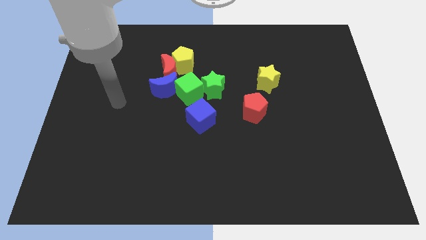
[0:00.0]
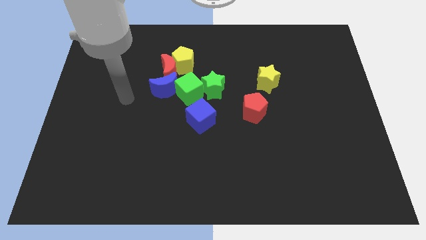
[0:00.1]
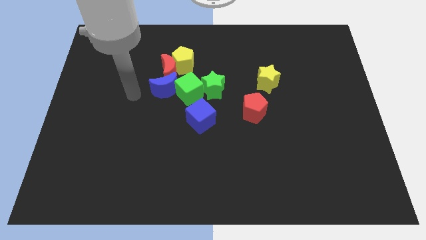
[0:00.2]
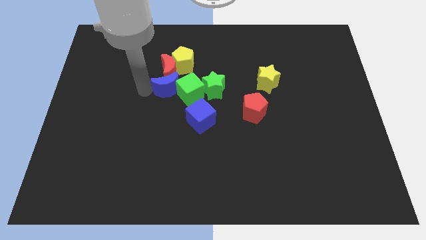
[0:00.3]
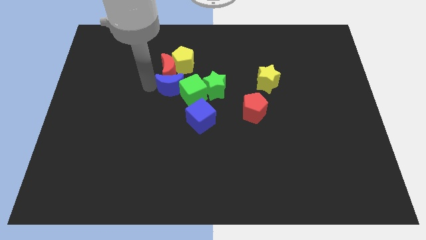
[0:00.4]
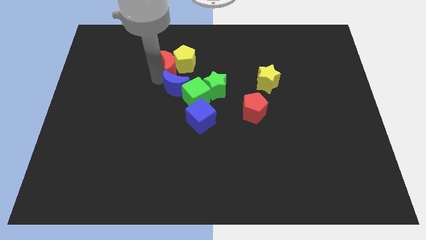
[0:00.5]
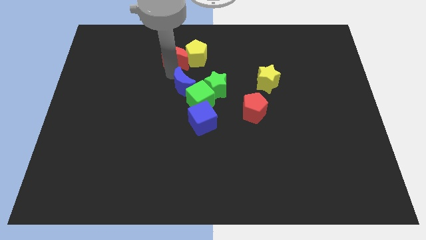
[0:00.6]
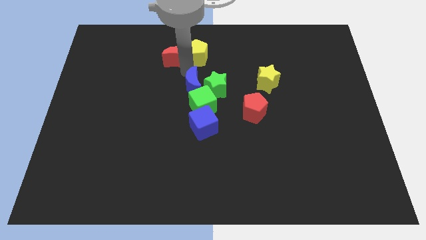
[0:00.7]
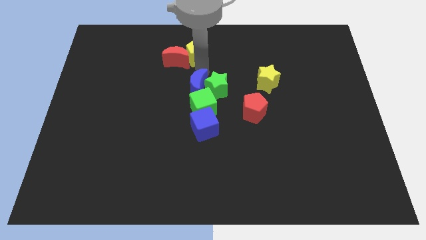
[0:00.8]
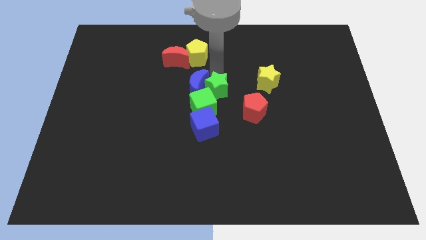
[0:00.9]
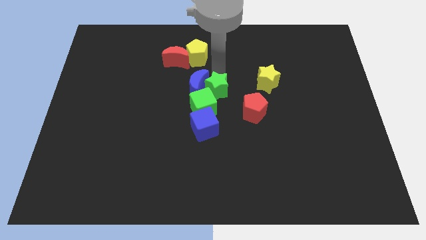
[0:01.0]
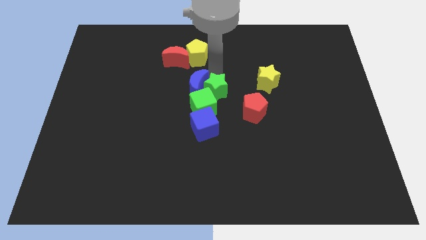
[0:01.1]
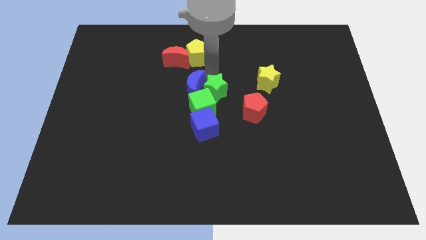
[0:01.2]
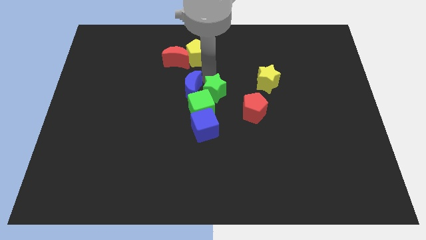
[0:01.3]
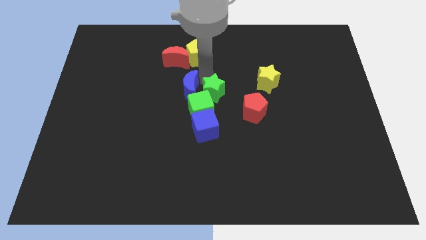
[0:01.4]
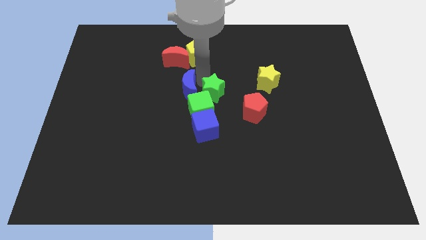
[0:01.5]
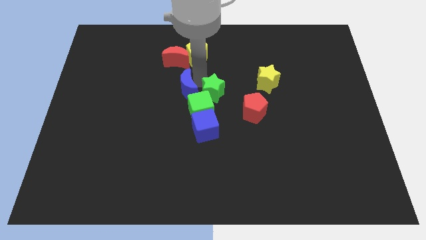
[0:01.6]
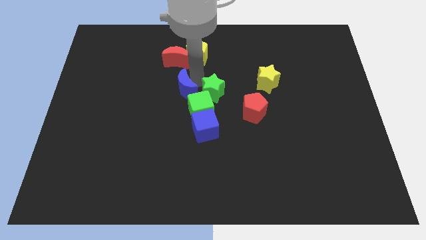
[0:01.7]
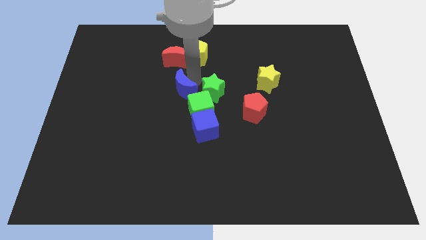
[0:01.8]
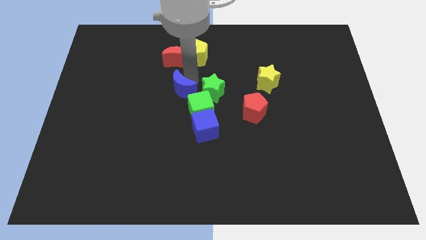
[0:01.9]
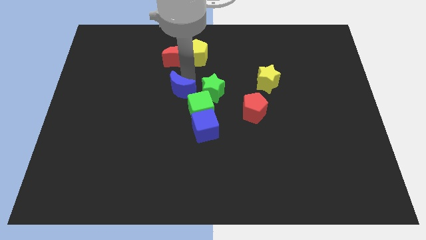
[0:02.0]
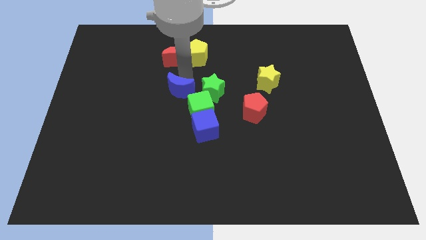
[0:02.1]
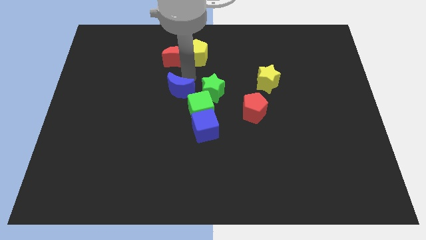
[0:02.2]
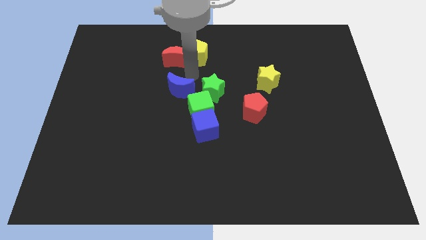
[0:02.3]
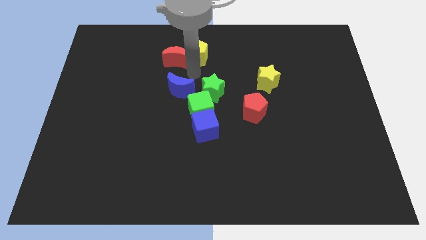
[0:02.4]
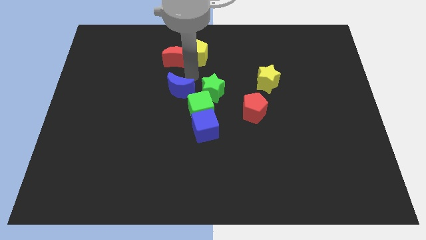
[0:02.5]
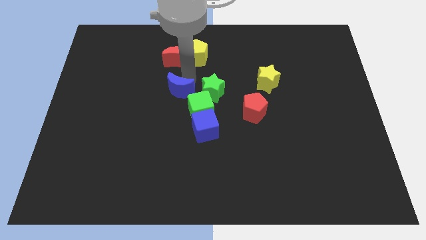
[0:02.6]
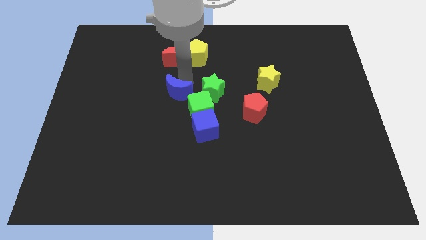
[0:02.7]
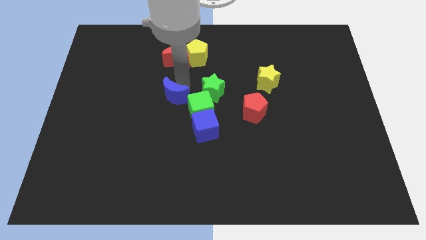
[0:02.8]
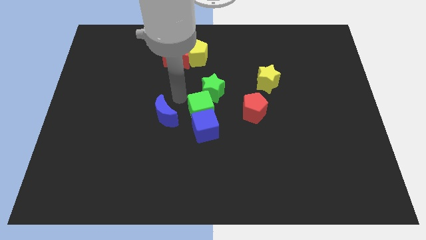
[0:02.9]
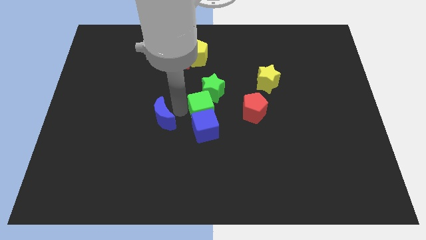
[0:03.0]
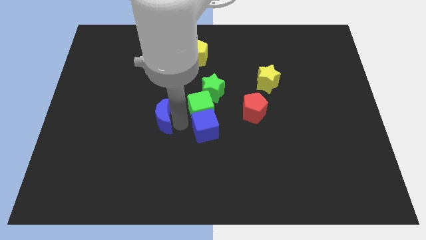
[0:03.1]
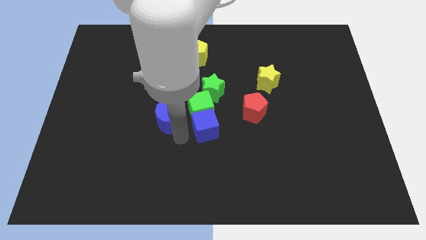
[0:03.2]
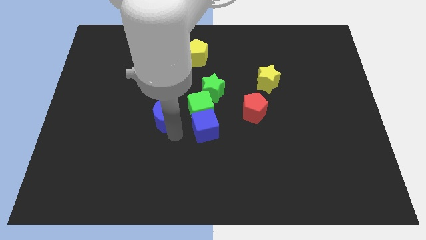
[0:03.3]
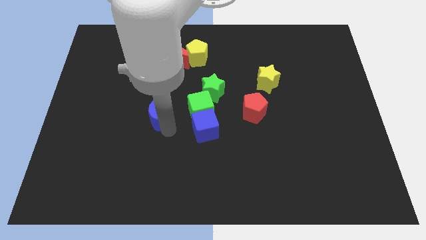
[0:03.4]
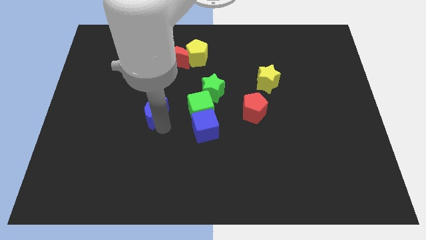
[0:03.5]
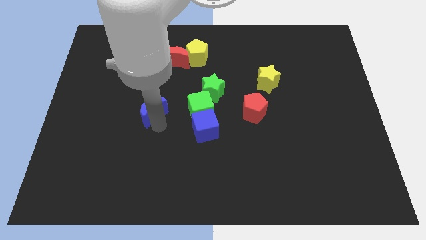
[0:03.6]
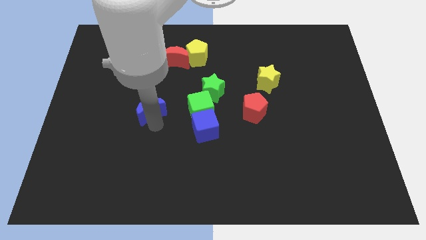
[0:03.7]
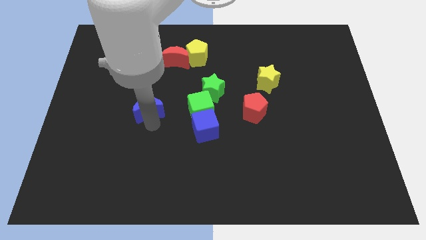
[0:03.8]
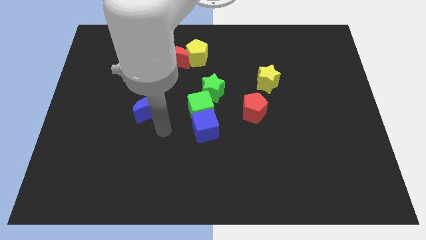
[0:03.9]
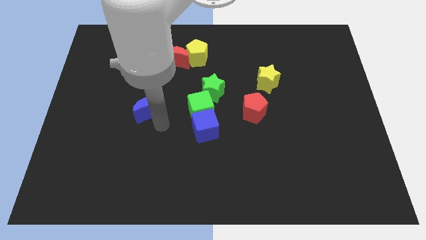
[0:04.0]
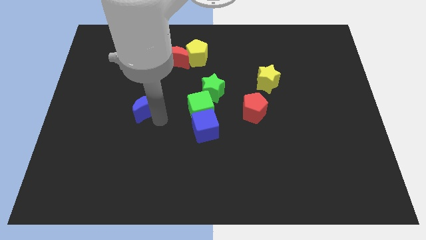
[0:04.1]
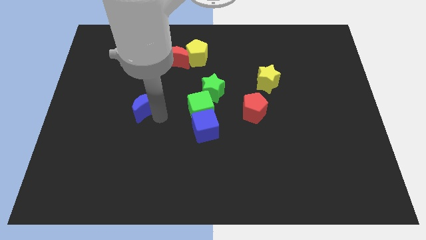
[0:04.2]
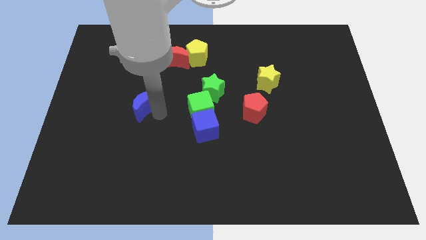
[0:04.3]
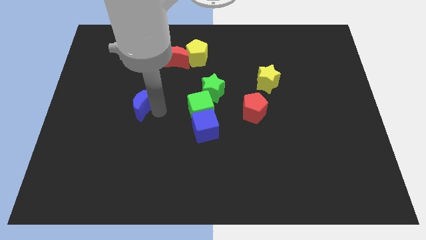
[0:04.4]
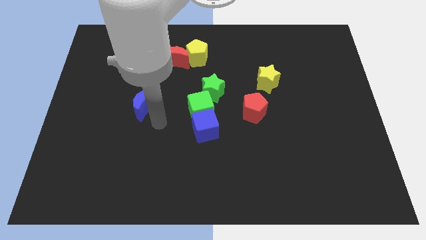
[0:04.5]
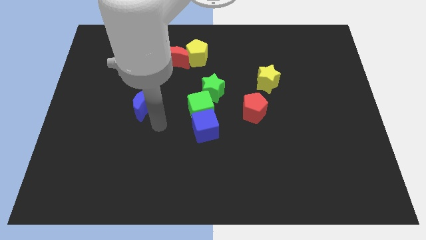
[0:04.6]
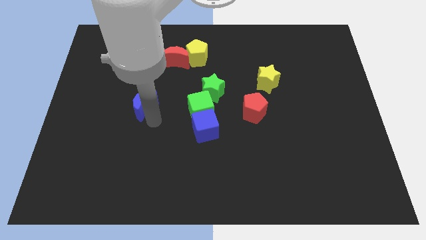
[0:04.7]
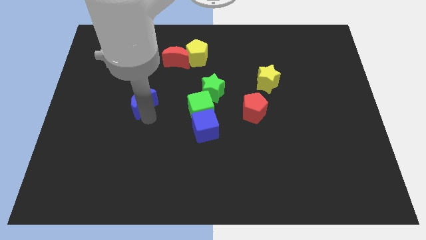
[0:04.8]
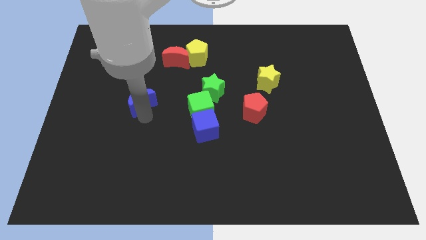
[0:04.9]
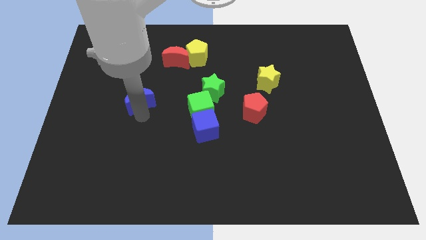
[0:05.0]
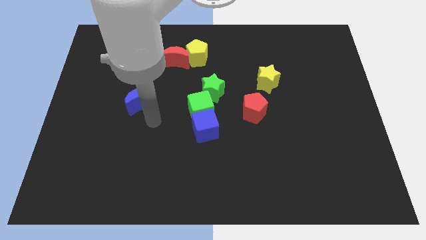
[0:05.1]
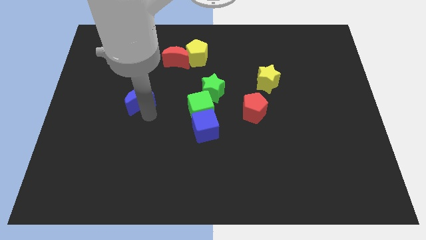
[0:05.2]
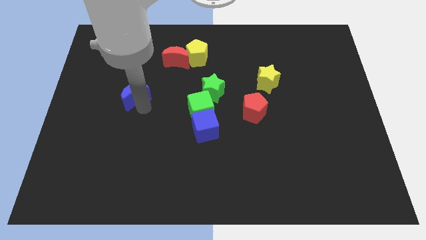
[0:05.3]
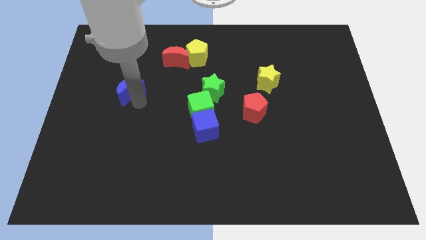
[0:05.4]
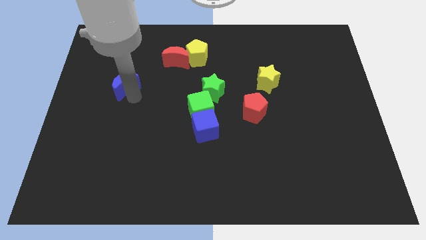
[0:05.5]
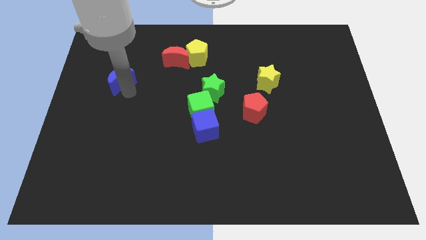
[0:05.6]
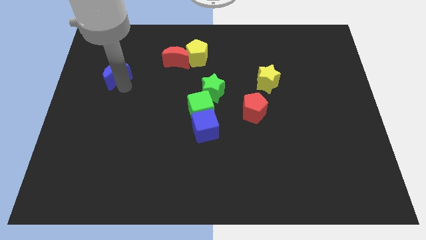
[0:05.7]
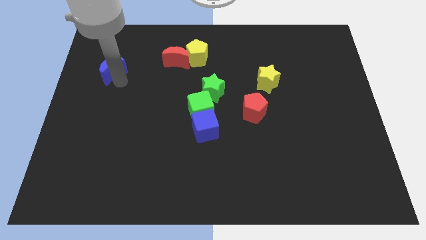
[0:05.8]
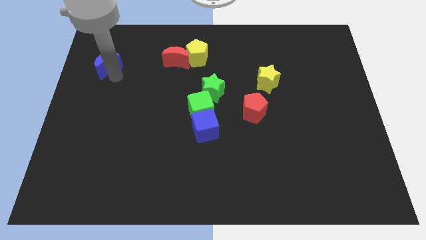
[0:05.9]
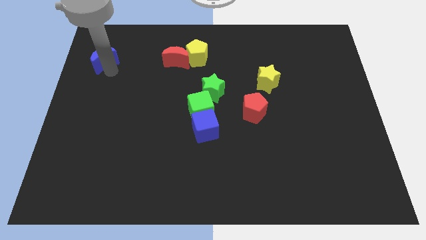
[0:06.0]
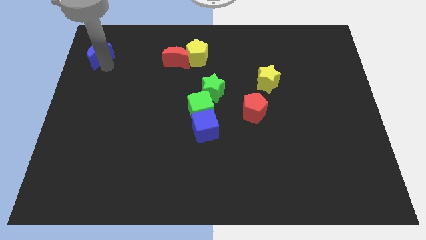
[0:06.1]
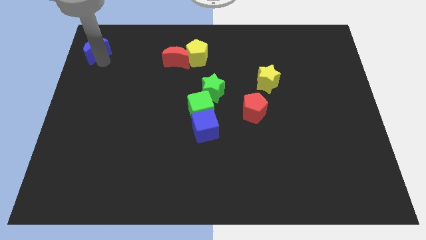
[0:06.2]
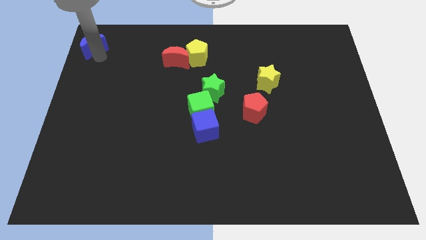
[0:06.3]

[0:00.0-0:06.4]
put the blue moon to the top left of the board

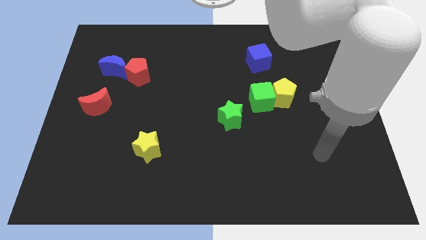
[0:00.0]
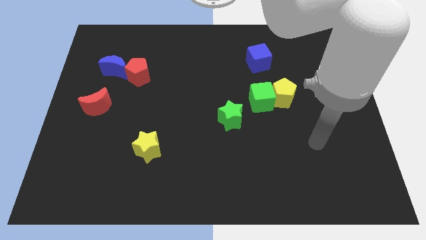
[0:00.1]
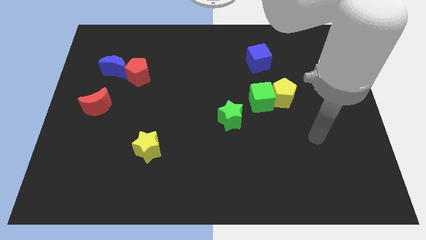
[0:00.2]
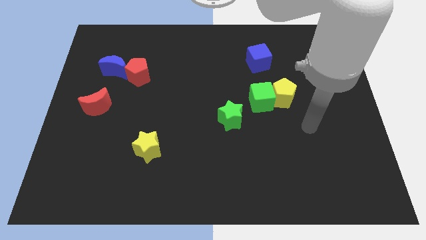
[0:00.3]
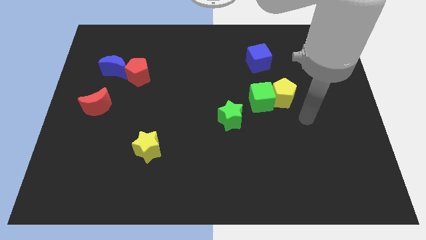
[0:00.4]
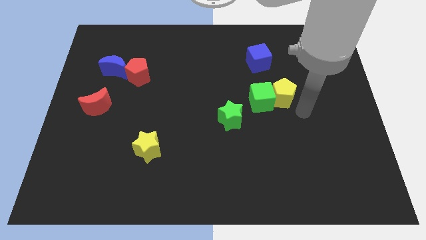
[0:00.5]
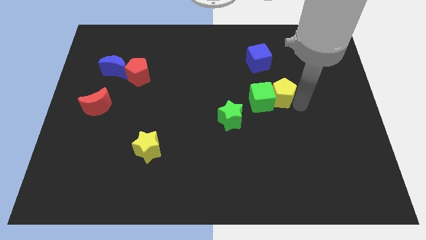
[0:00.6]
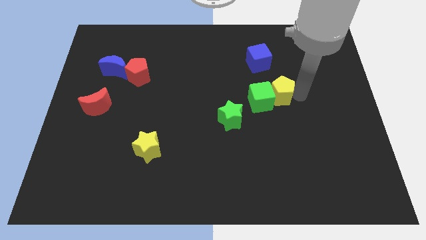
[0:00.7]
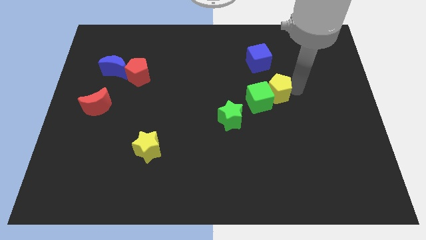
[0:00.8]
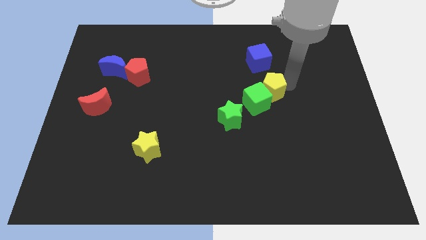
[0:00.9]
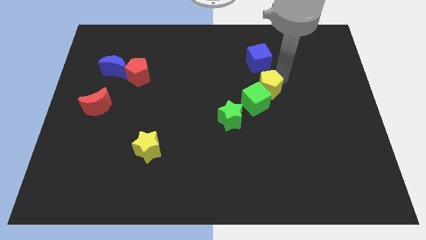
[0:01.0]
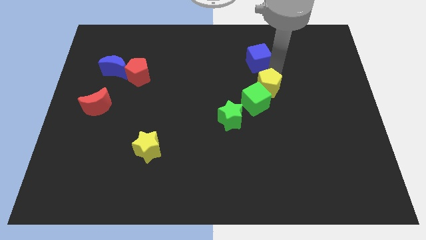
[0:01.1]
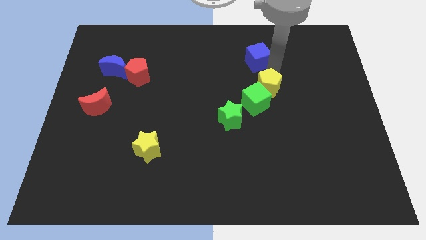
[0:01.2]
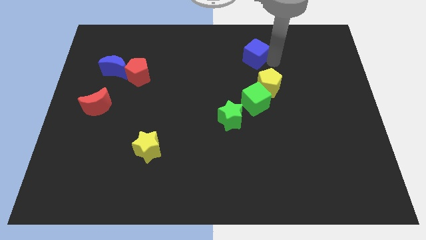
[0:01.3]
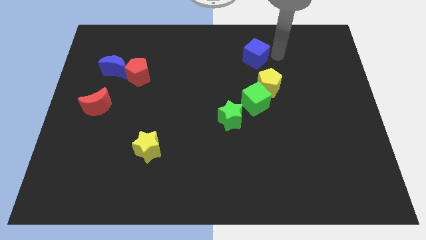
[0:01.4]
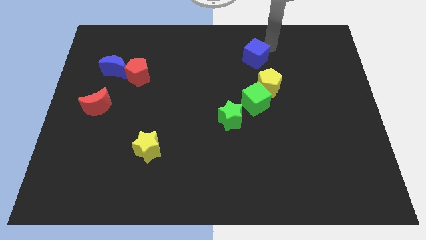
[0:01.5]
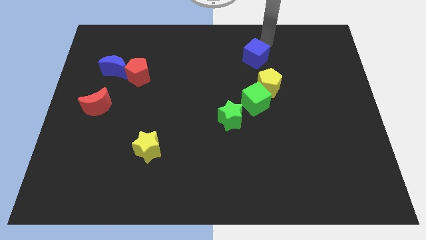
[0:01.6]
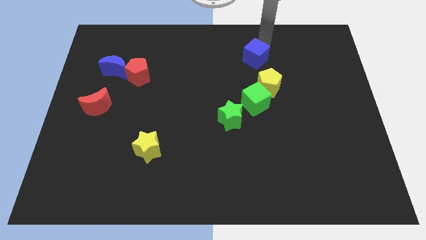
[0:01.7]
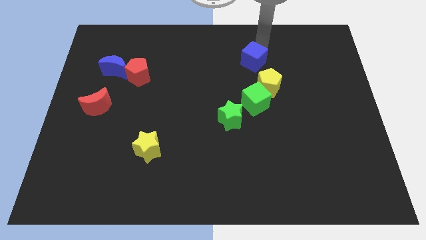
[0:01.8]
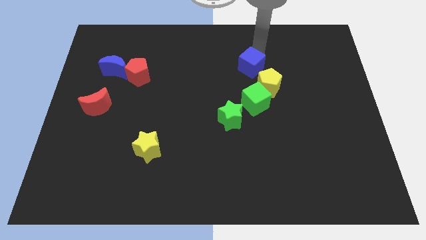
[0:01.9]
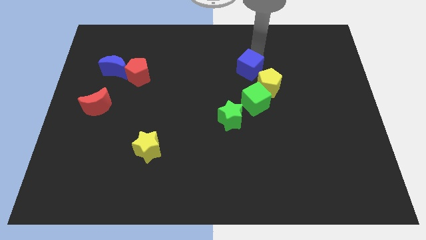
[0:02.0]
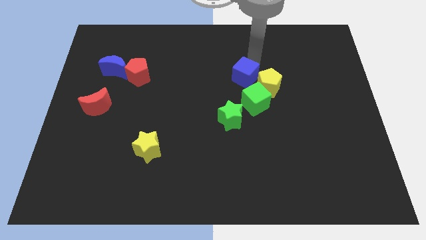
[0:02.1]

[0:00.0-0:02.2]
slide the blue cube to the center
